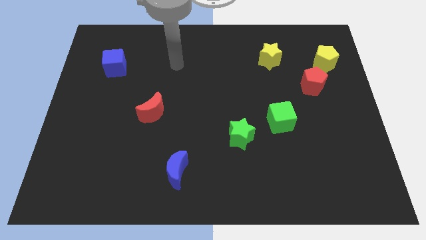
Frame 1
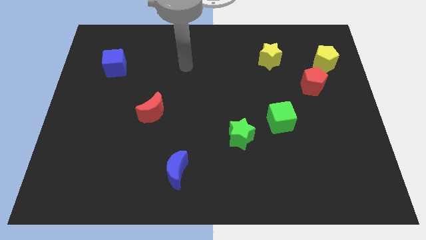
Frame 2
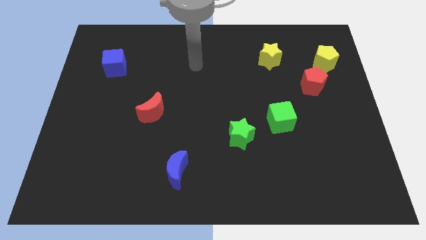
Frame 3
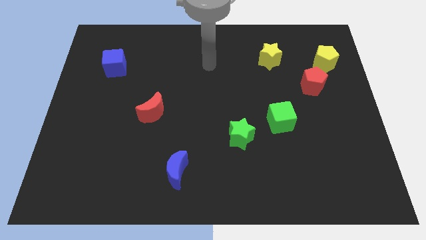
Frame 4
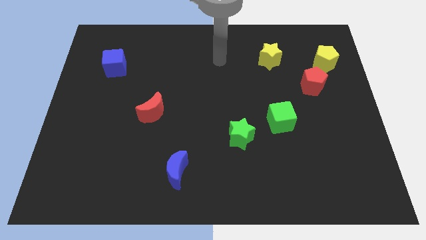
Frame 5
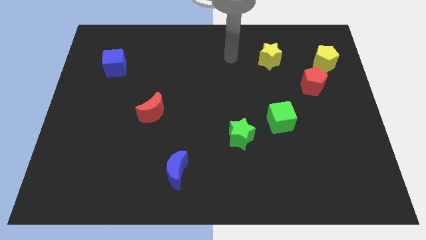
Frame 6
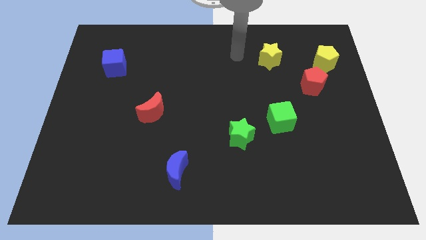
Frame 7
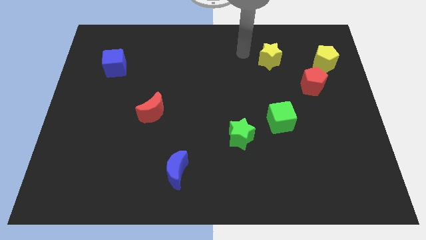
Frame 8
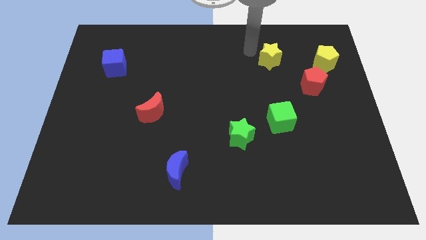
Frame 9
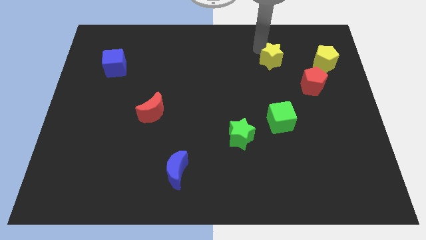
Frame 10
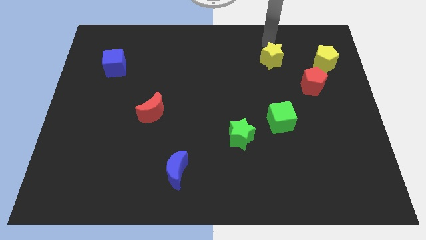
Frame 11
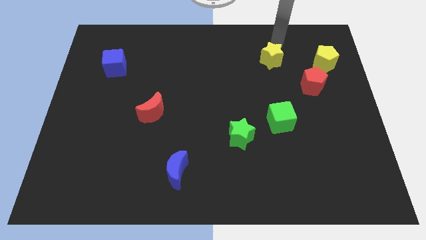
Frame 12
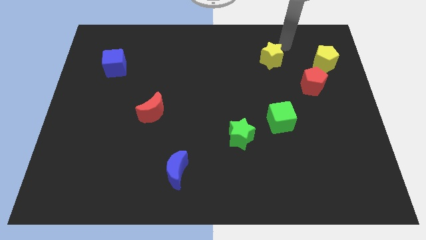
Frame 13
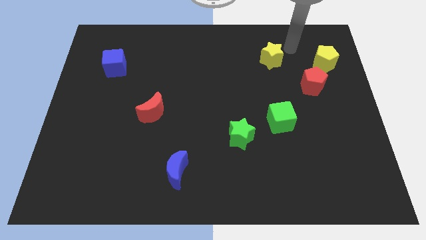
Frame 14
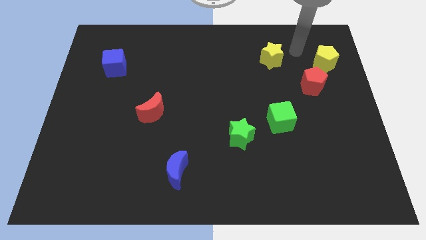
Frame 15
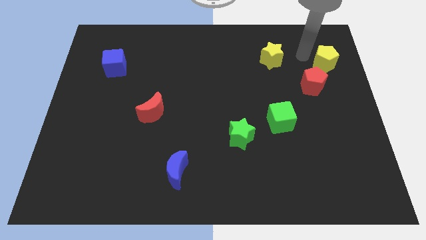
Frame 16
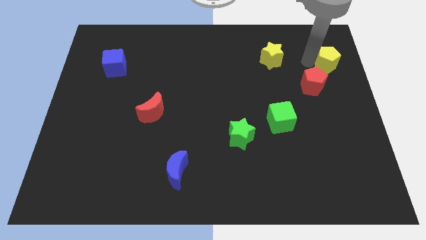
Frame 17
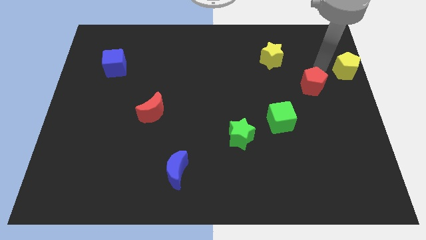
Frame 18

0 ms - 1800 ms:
separate the red pentagon from the yellow pentagon

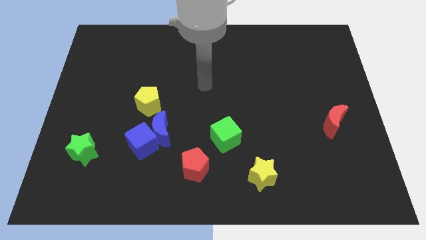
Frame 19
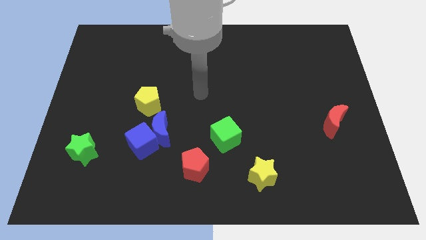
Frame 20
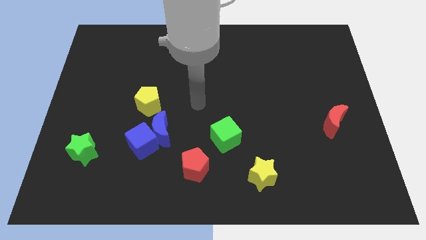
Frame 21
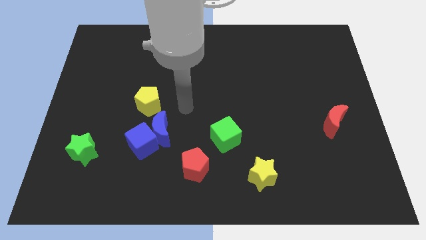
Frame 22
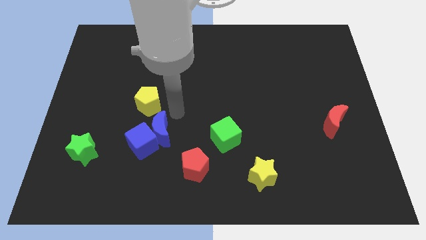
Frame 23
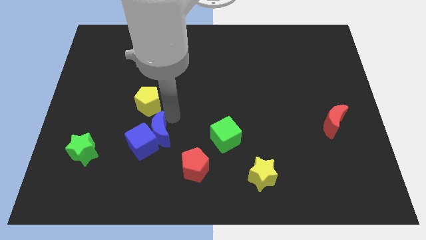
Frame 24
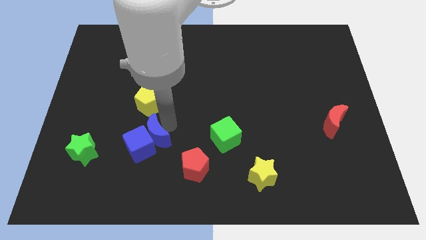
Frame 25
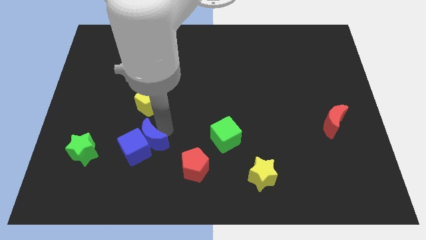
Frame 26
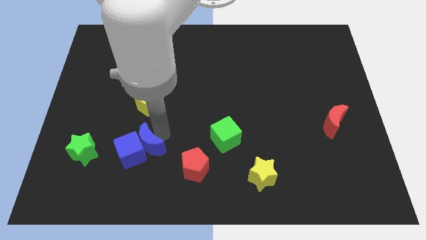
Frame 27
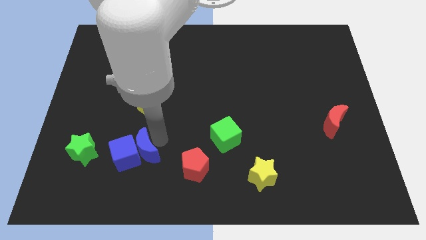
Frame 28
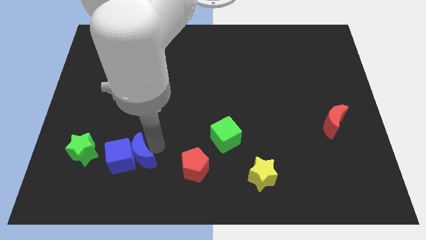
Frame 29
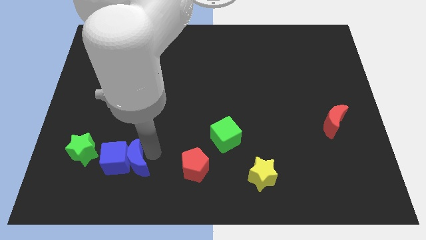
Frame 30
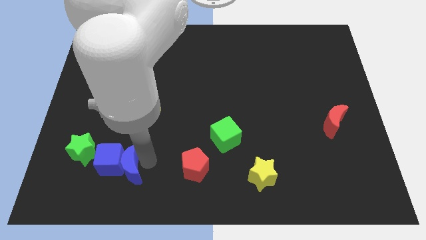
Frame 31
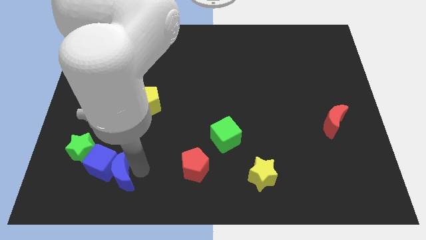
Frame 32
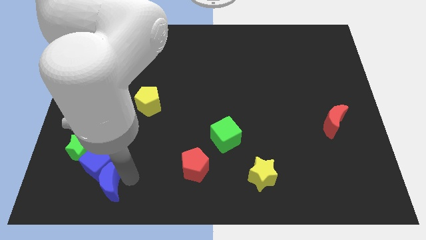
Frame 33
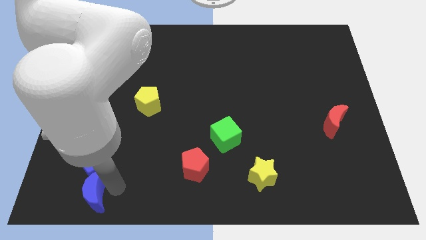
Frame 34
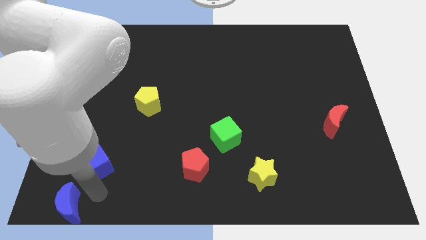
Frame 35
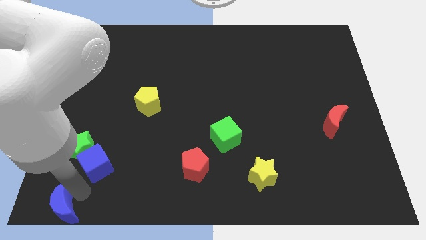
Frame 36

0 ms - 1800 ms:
pull the blue cube apart from the blue moon

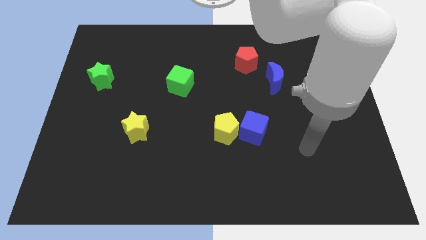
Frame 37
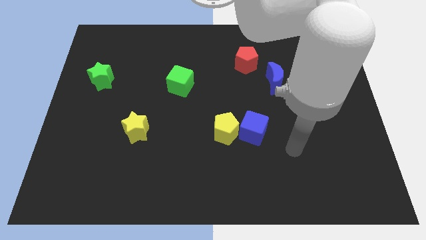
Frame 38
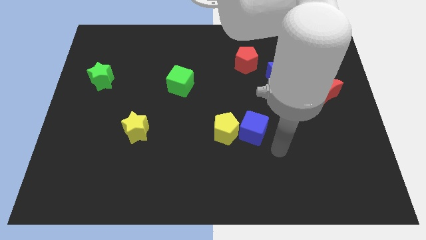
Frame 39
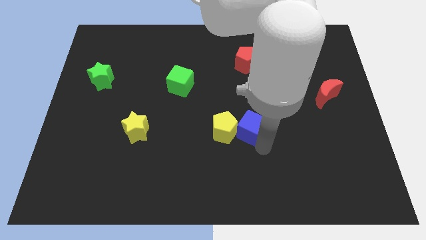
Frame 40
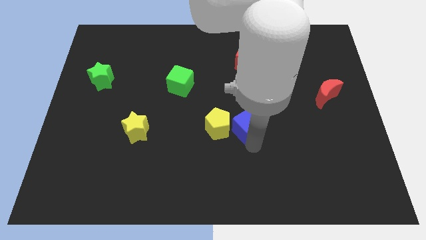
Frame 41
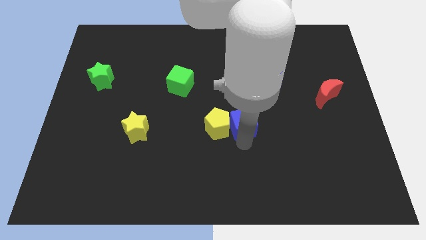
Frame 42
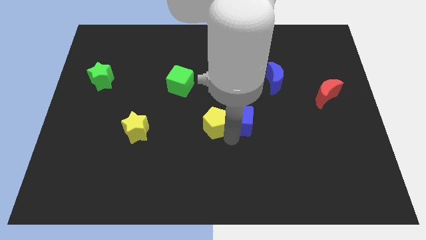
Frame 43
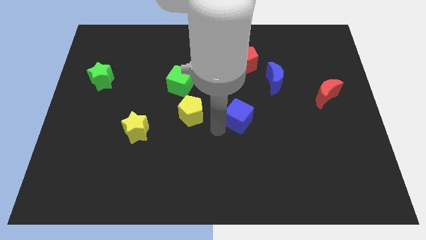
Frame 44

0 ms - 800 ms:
pull the blue cube apart from the yellow pentagon

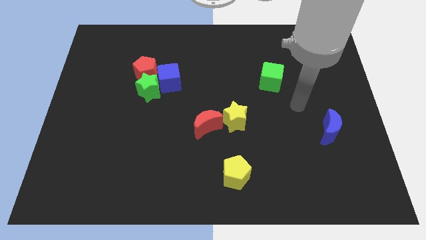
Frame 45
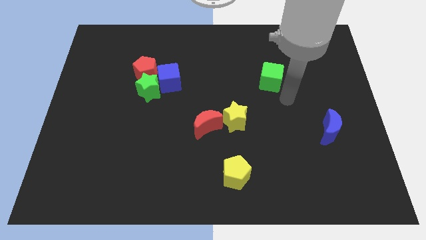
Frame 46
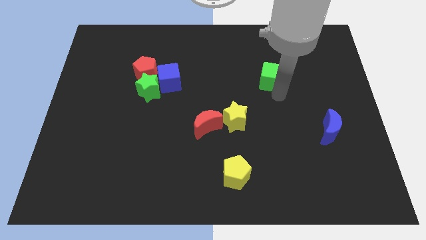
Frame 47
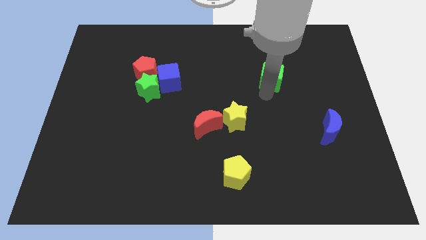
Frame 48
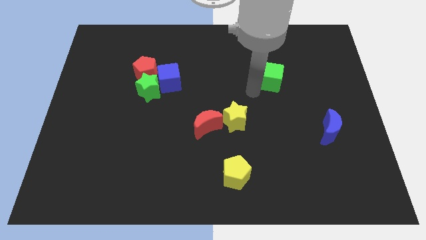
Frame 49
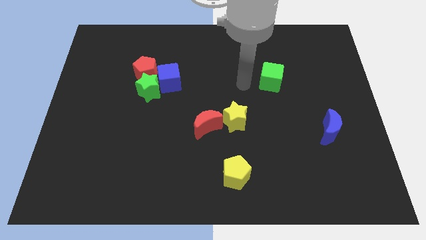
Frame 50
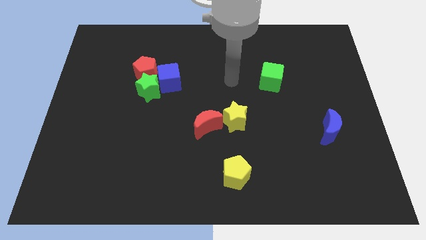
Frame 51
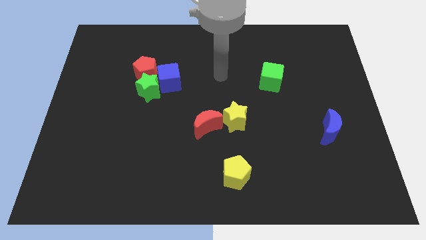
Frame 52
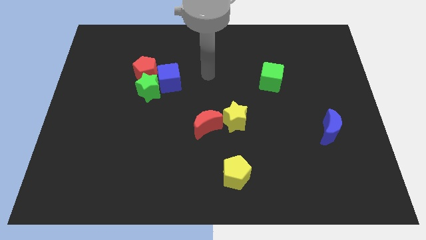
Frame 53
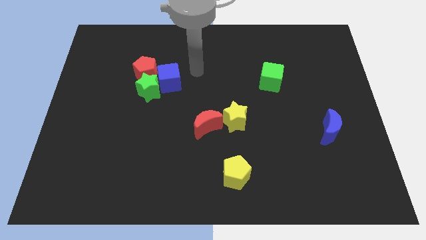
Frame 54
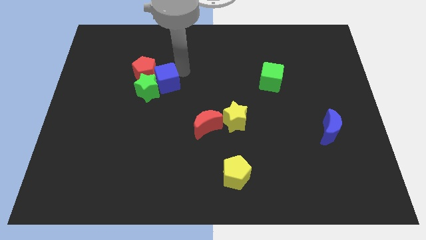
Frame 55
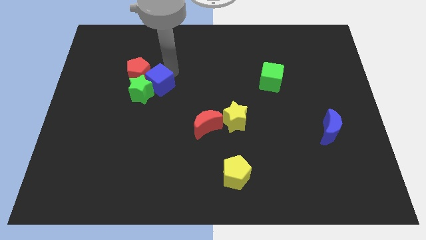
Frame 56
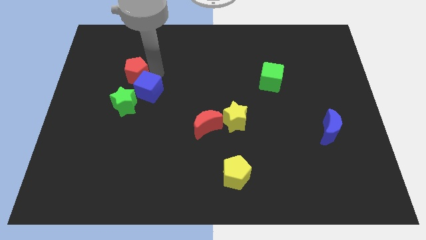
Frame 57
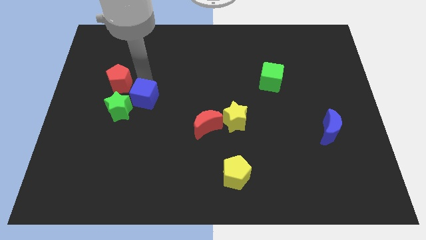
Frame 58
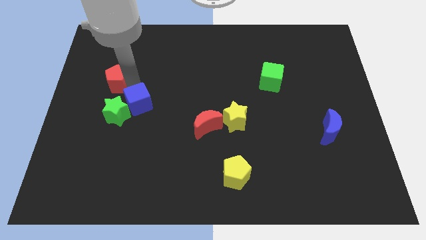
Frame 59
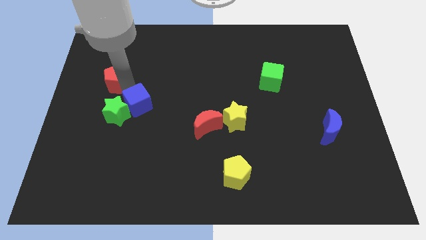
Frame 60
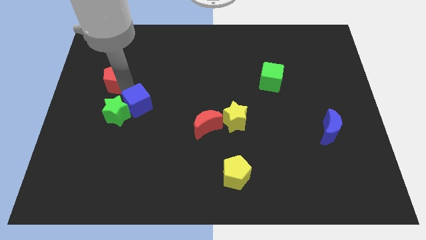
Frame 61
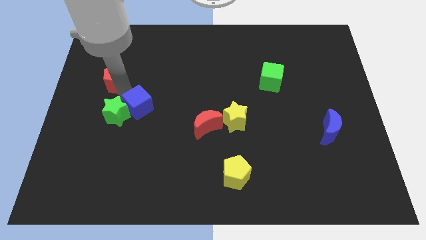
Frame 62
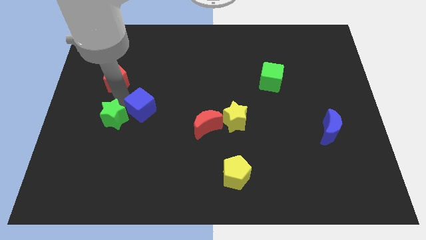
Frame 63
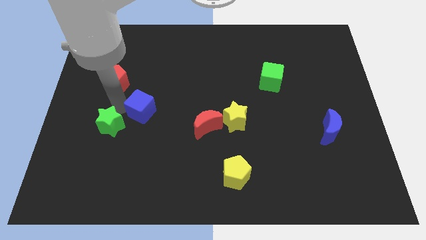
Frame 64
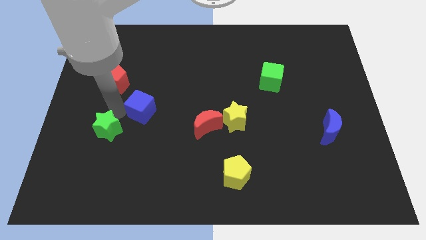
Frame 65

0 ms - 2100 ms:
separate the green star from the blue cube and red pentagon

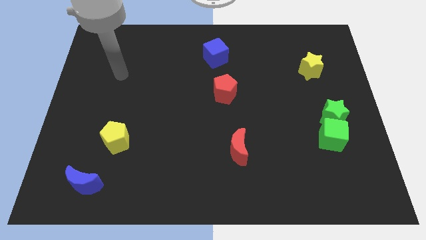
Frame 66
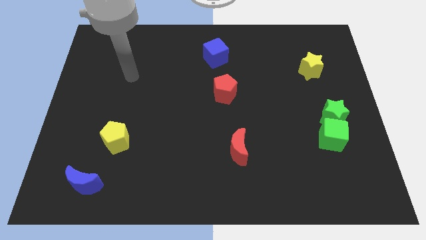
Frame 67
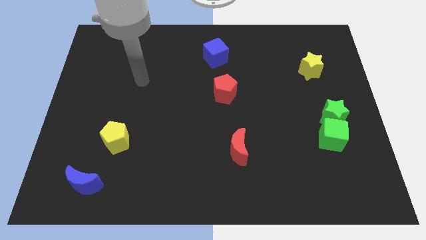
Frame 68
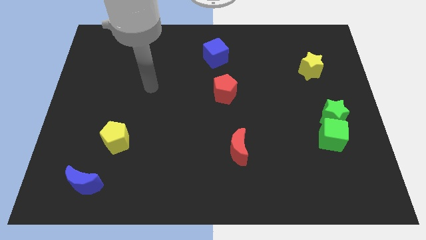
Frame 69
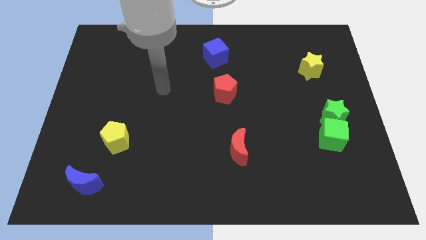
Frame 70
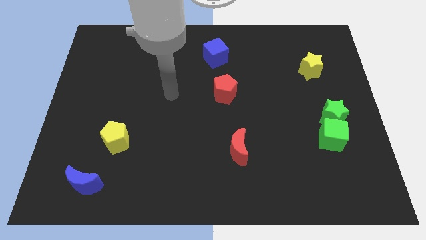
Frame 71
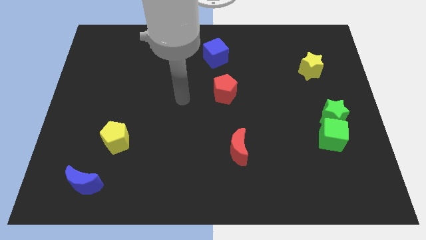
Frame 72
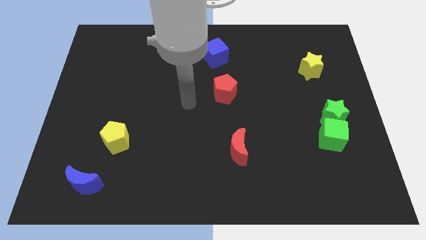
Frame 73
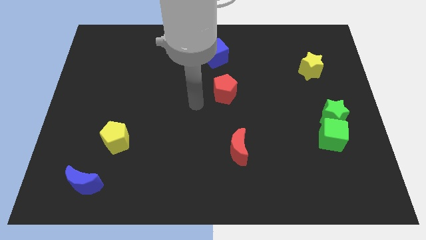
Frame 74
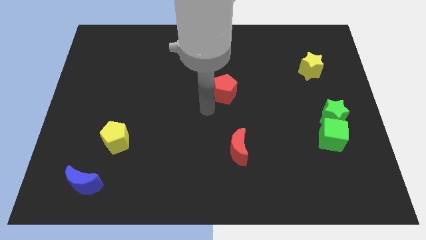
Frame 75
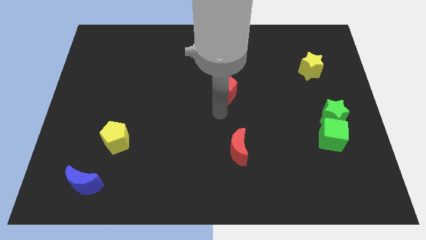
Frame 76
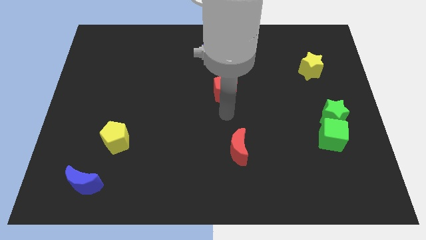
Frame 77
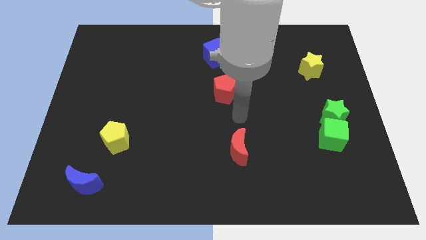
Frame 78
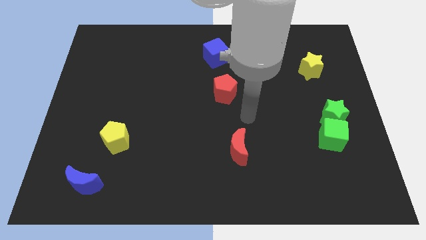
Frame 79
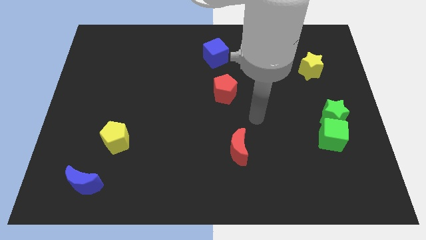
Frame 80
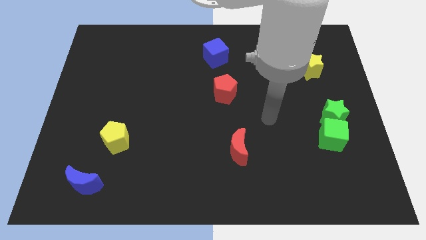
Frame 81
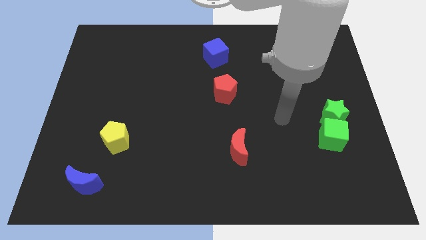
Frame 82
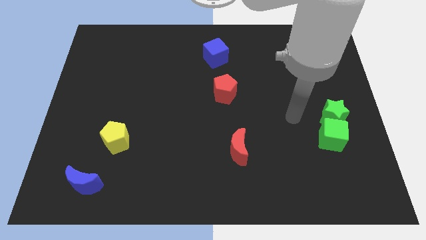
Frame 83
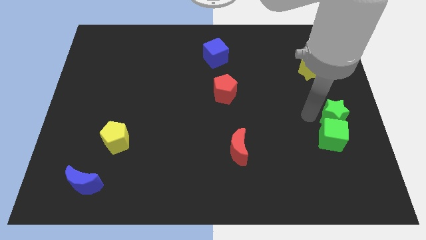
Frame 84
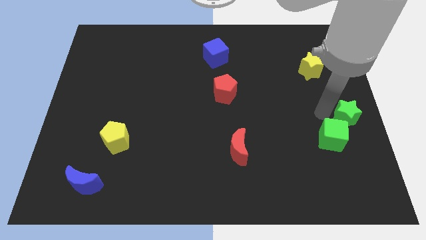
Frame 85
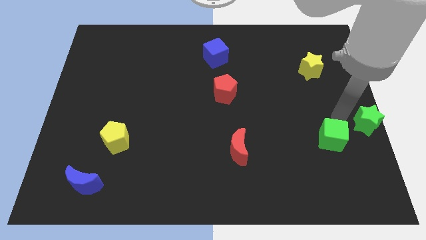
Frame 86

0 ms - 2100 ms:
separate the green cube from the green star

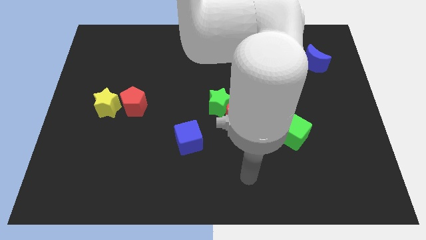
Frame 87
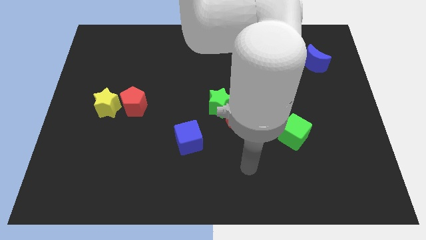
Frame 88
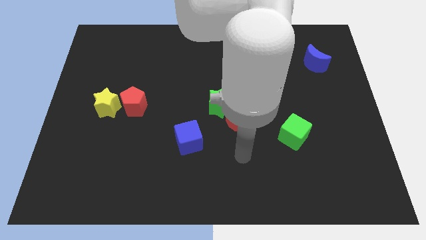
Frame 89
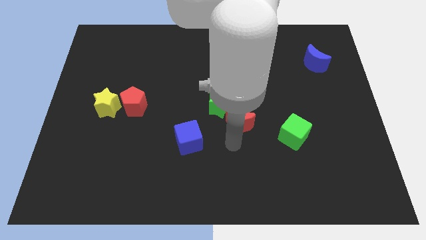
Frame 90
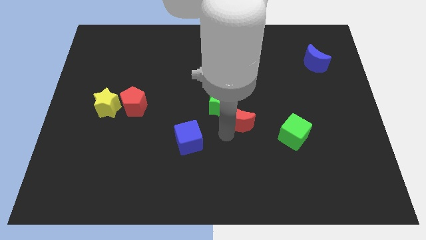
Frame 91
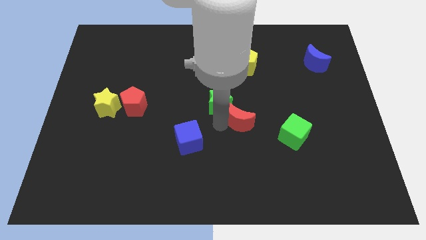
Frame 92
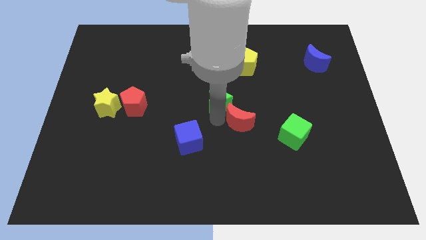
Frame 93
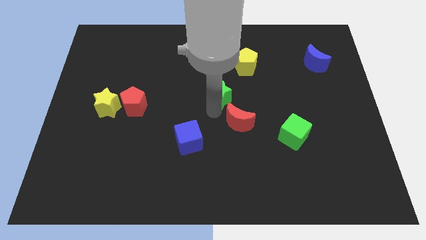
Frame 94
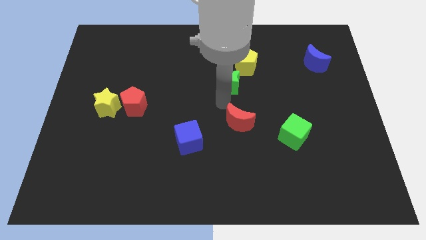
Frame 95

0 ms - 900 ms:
separate the red moon from the green star
